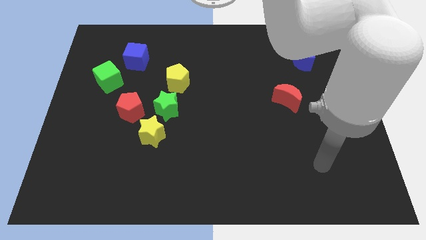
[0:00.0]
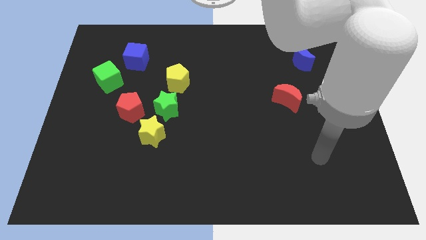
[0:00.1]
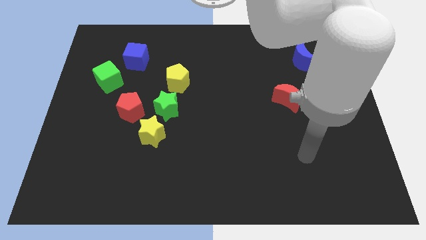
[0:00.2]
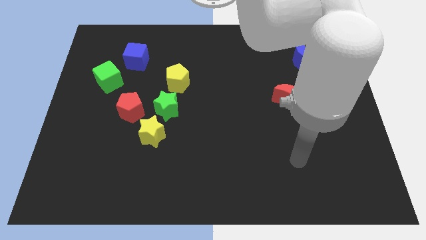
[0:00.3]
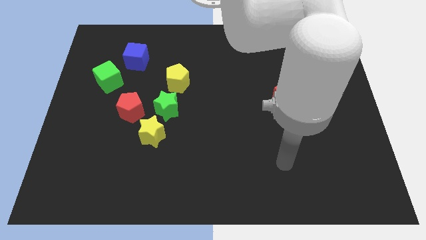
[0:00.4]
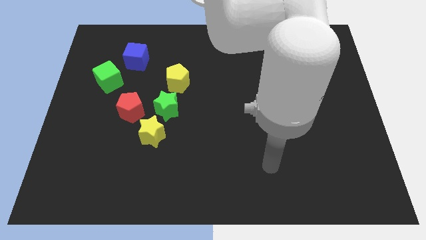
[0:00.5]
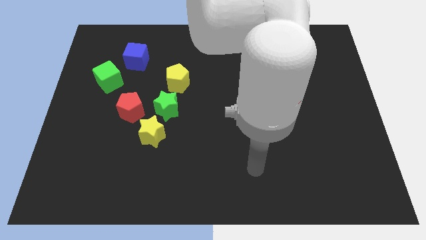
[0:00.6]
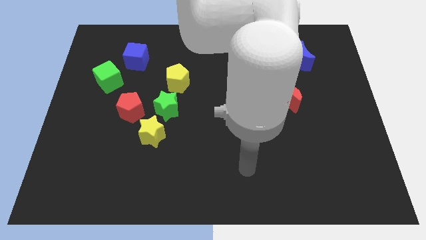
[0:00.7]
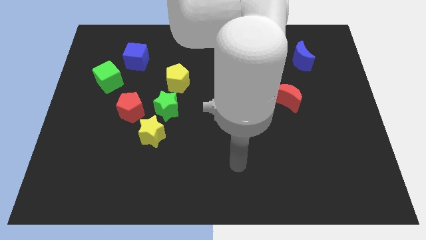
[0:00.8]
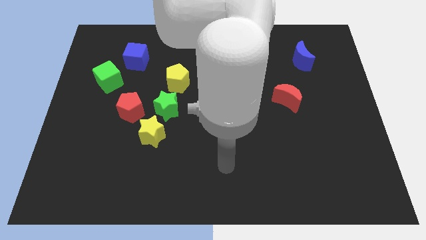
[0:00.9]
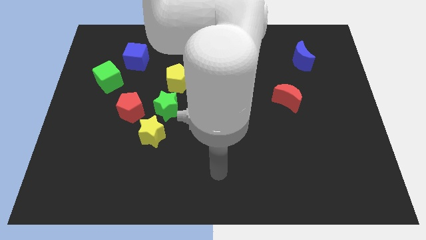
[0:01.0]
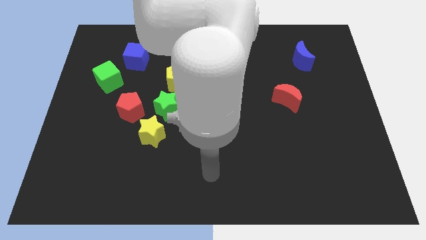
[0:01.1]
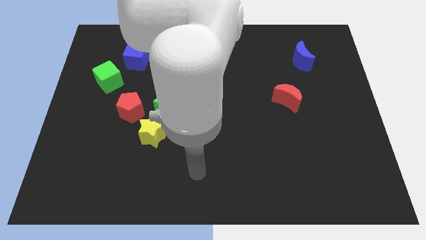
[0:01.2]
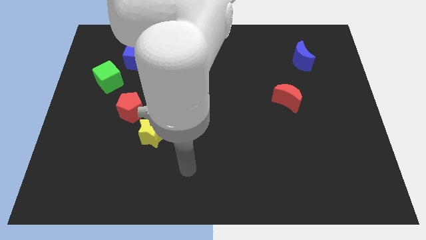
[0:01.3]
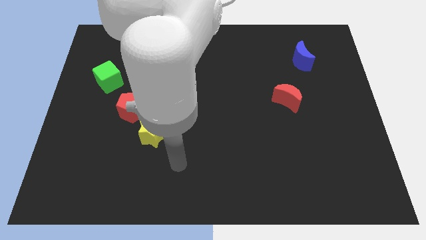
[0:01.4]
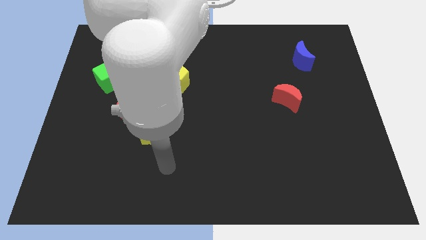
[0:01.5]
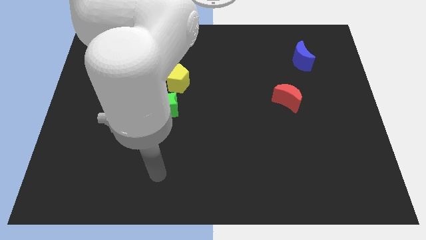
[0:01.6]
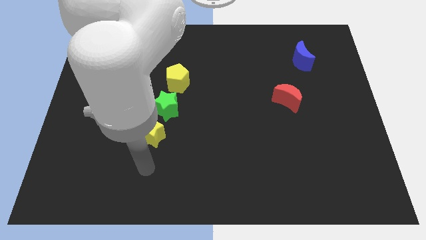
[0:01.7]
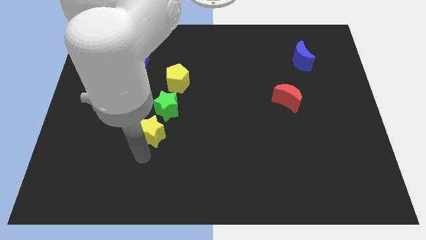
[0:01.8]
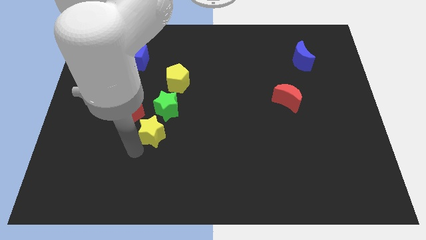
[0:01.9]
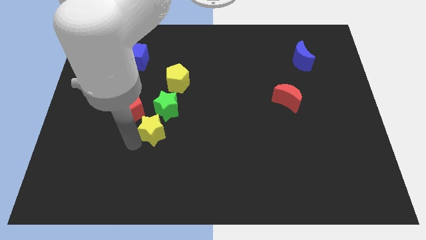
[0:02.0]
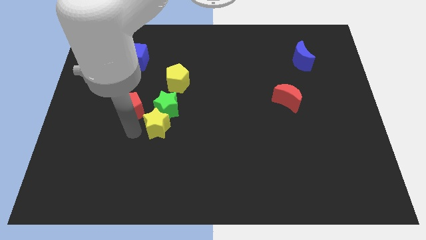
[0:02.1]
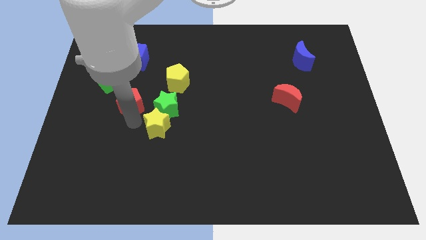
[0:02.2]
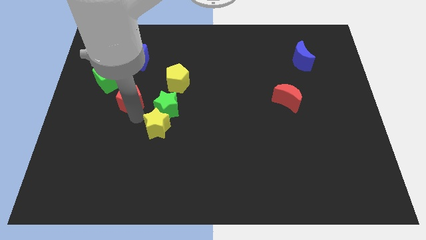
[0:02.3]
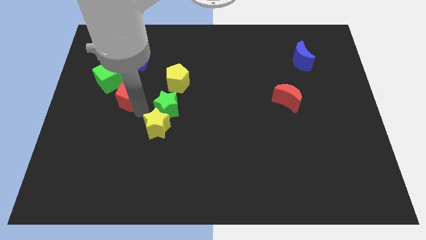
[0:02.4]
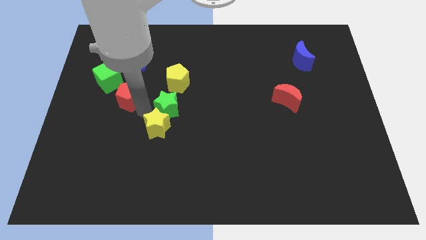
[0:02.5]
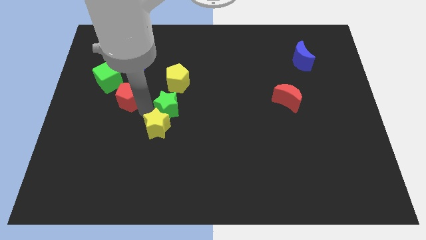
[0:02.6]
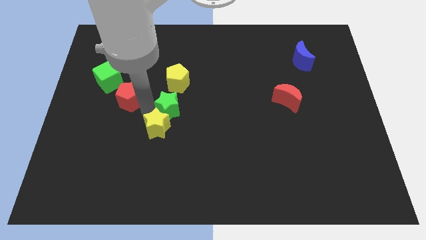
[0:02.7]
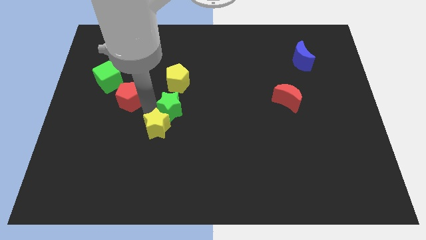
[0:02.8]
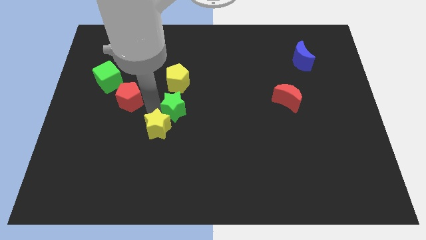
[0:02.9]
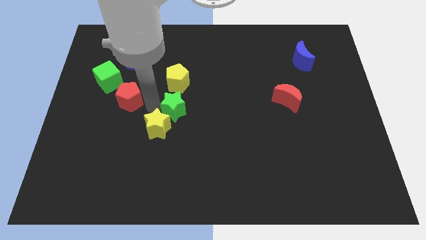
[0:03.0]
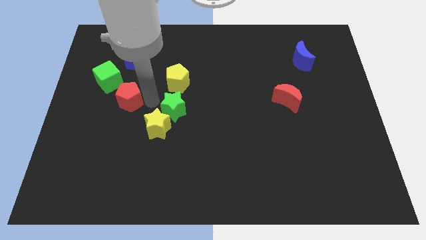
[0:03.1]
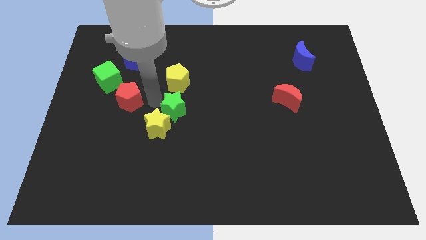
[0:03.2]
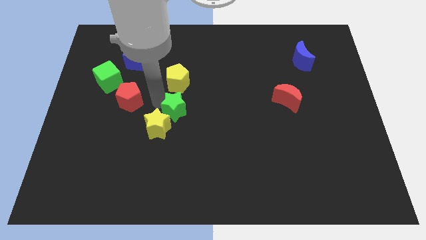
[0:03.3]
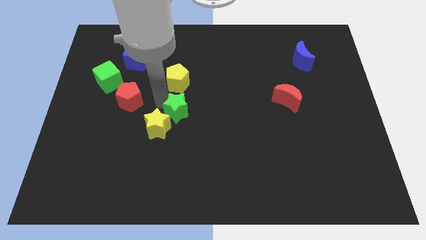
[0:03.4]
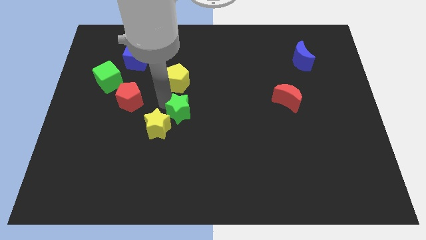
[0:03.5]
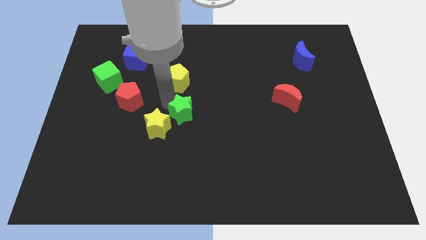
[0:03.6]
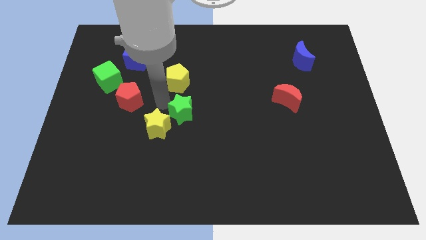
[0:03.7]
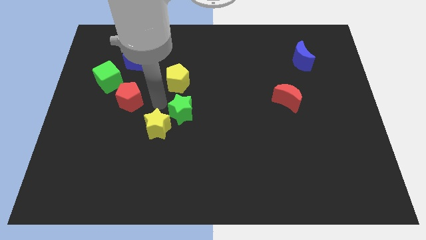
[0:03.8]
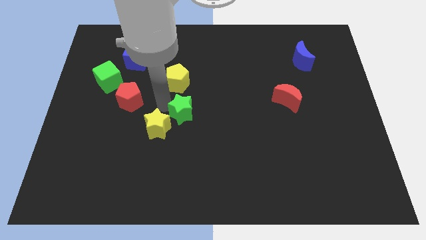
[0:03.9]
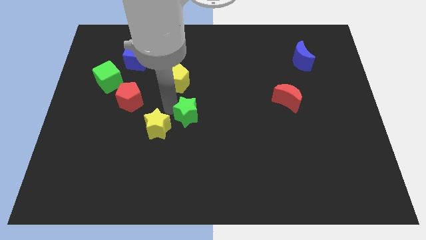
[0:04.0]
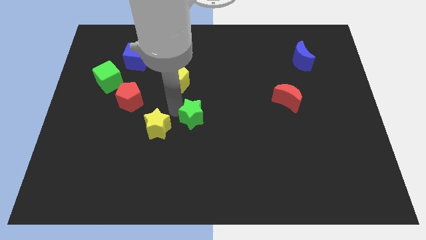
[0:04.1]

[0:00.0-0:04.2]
move the green star away from the yellow star, red pentagon, and yellow pentagon

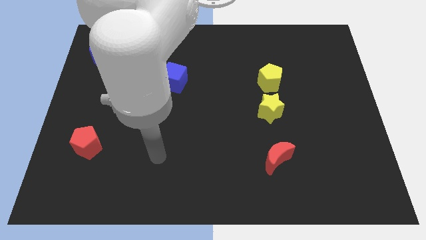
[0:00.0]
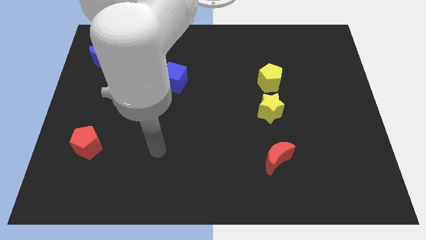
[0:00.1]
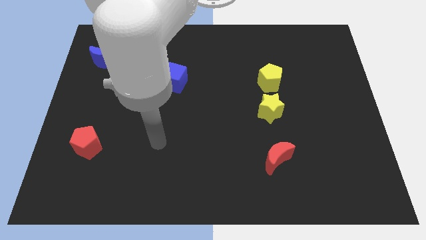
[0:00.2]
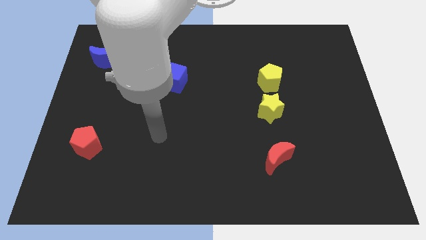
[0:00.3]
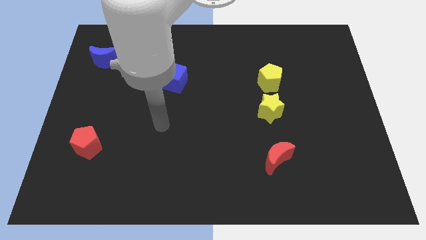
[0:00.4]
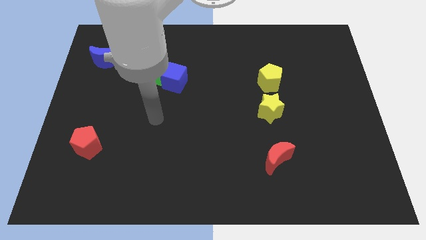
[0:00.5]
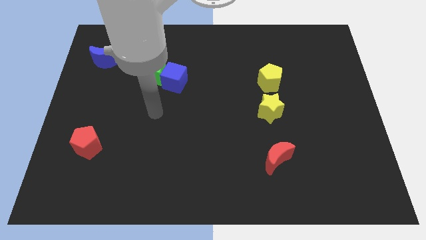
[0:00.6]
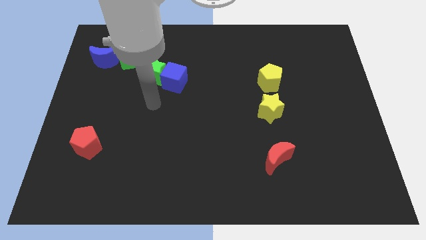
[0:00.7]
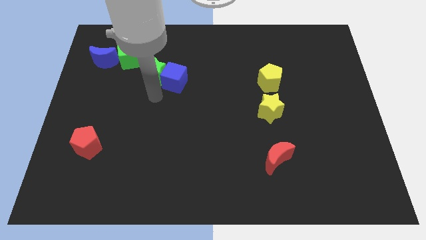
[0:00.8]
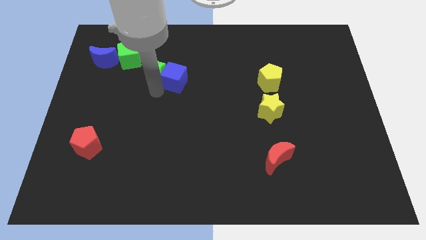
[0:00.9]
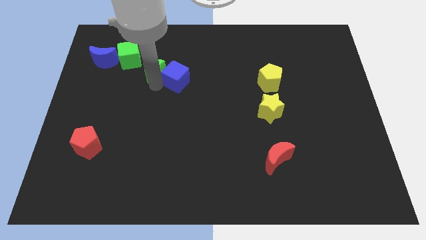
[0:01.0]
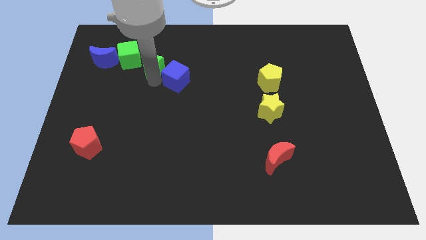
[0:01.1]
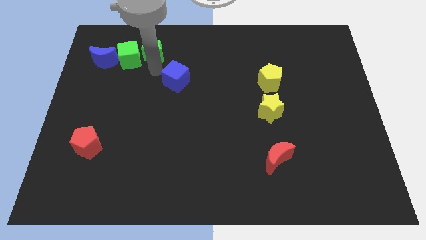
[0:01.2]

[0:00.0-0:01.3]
move the blue cube away from the green star

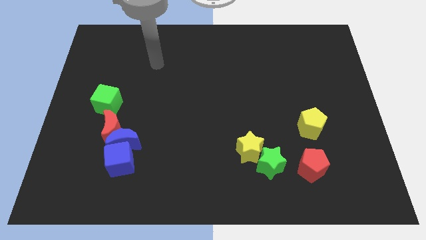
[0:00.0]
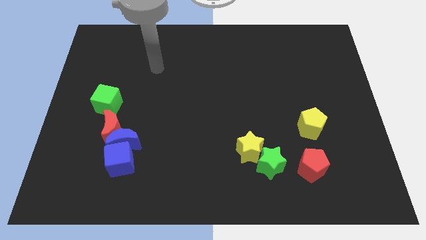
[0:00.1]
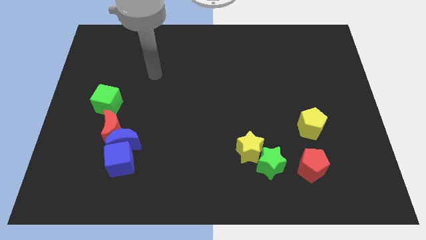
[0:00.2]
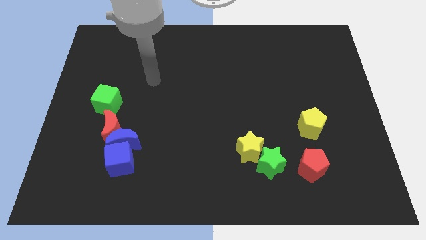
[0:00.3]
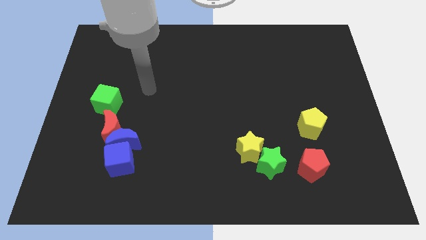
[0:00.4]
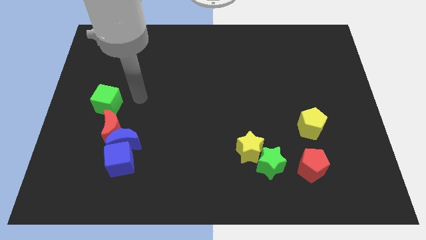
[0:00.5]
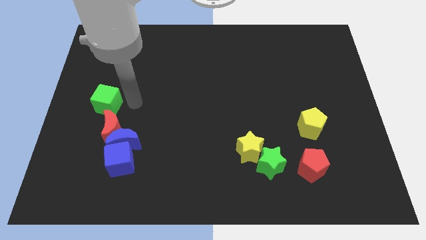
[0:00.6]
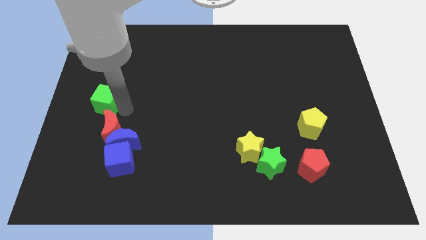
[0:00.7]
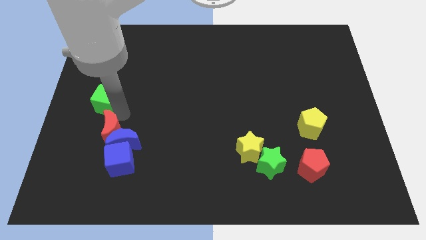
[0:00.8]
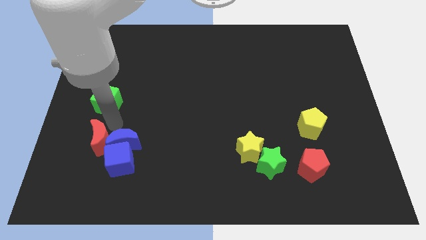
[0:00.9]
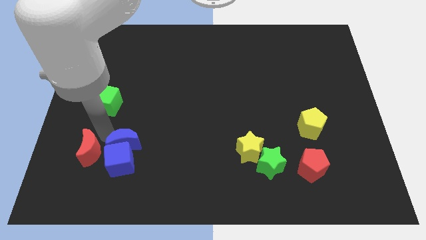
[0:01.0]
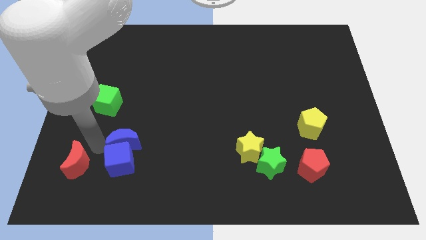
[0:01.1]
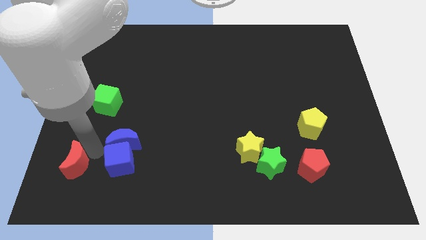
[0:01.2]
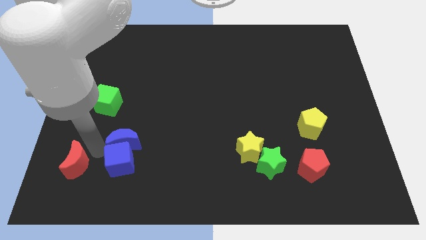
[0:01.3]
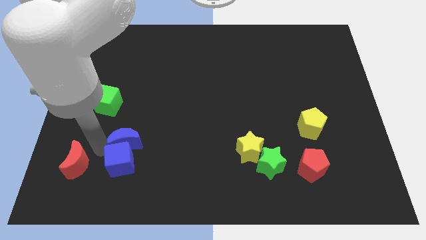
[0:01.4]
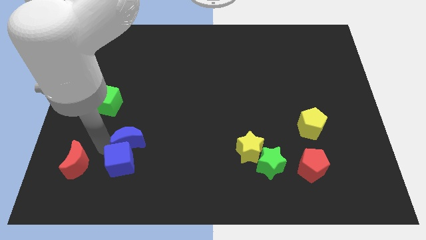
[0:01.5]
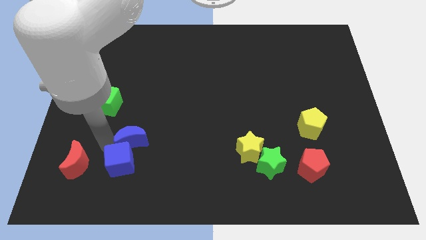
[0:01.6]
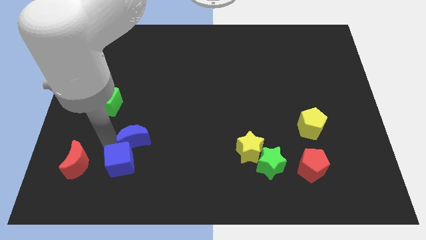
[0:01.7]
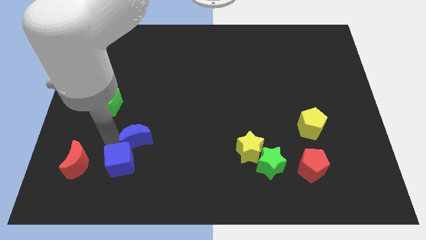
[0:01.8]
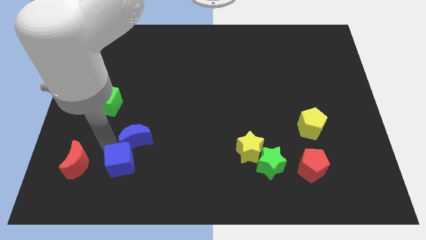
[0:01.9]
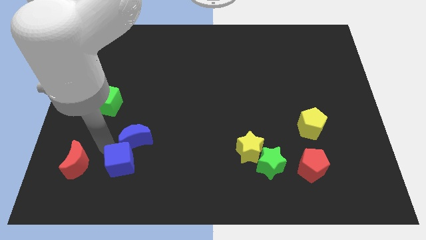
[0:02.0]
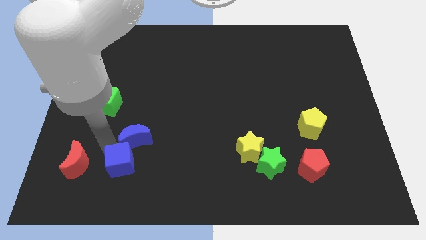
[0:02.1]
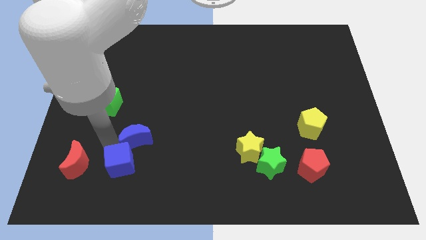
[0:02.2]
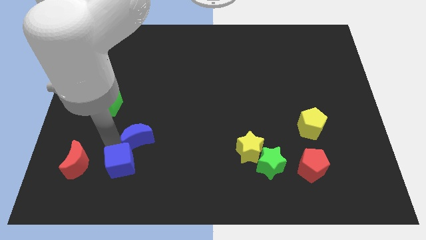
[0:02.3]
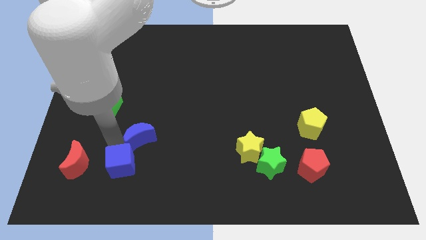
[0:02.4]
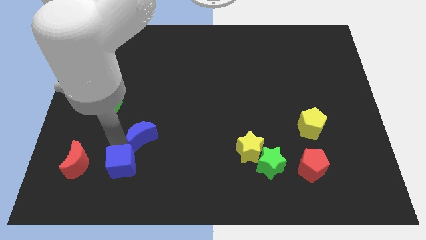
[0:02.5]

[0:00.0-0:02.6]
pull the blue moon apart from the red moon and blue cube

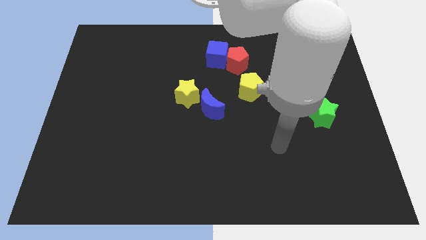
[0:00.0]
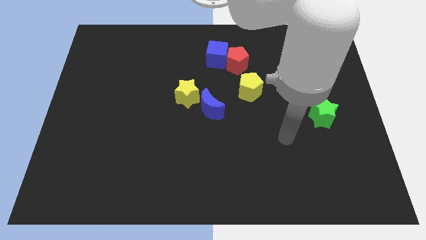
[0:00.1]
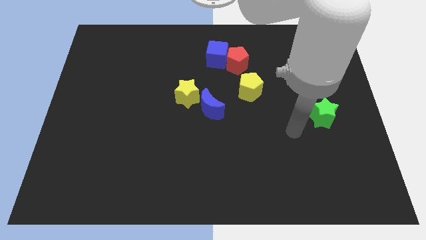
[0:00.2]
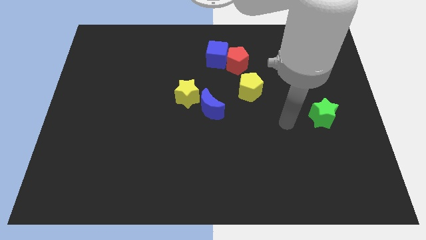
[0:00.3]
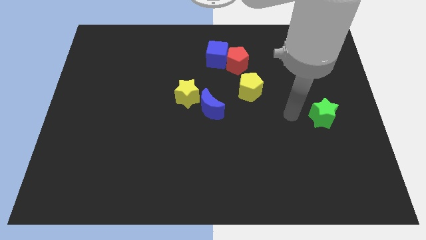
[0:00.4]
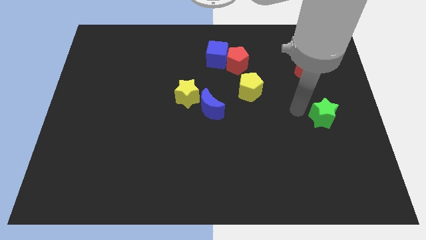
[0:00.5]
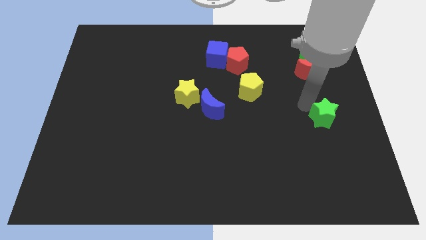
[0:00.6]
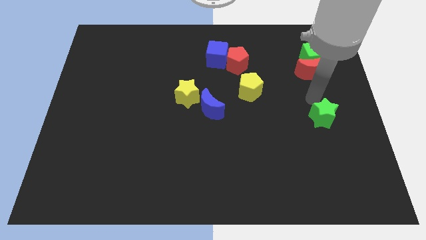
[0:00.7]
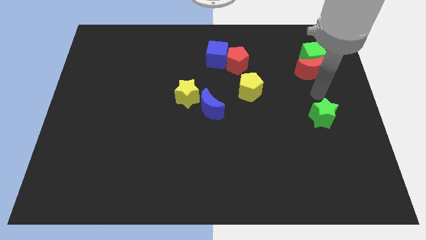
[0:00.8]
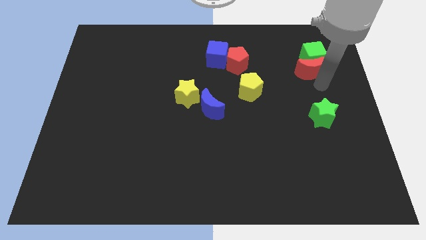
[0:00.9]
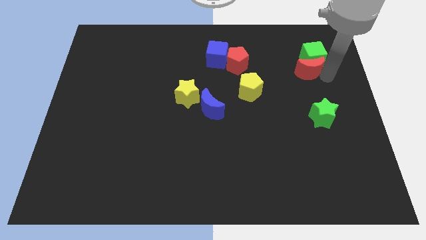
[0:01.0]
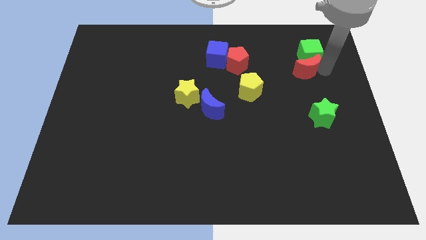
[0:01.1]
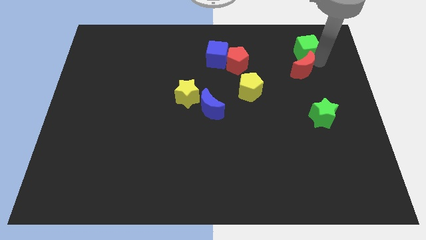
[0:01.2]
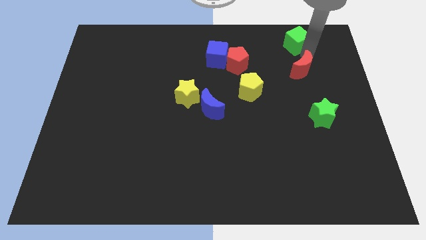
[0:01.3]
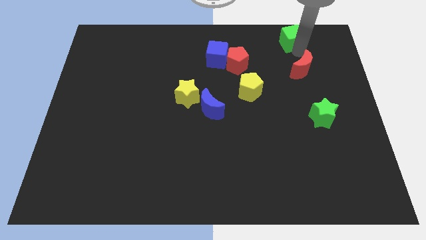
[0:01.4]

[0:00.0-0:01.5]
move the red moon away from the green cube
